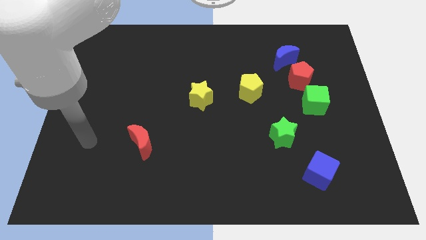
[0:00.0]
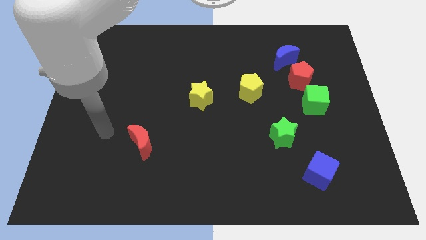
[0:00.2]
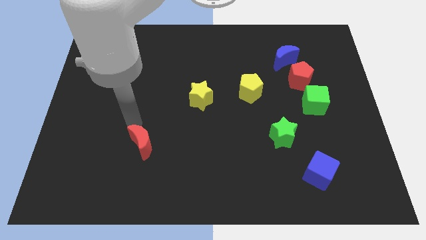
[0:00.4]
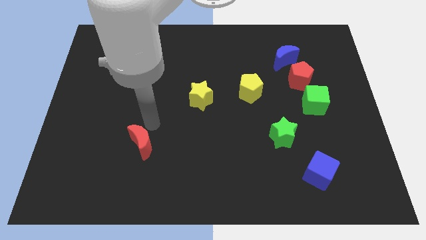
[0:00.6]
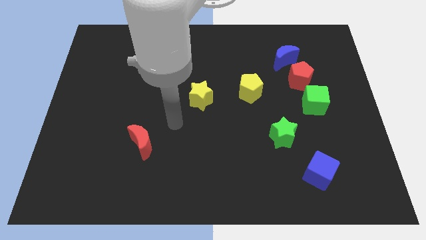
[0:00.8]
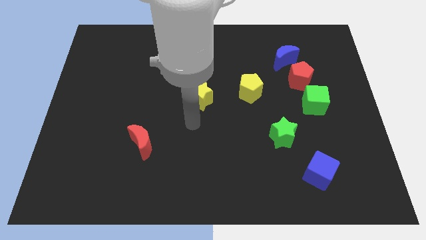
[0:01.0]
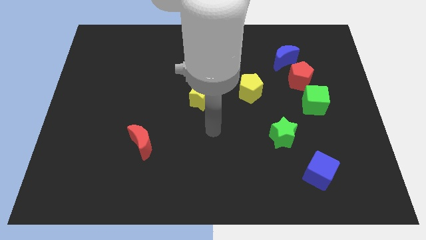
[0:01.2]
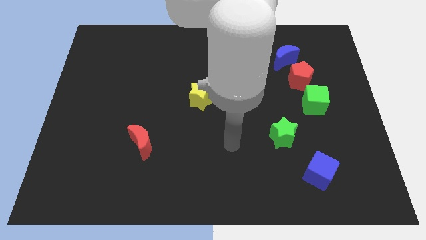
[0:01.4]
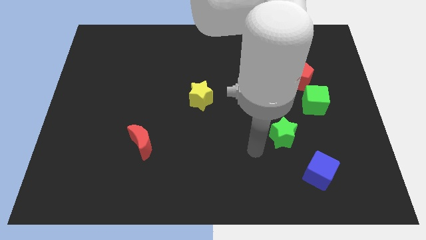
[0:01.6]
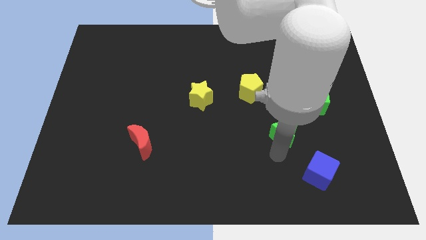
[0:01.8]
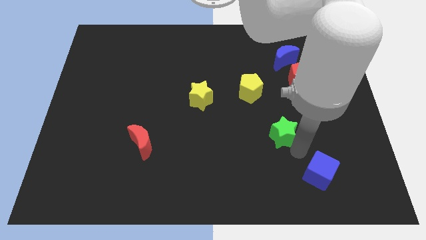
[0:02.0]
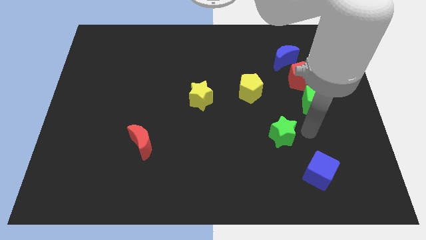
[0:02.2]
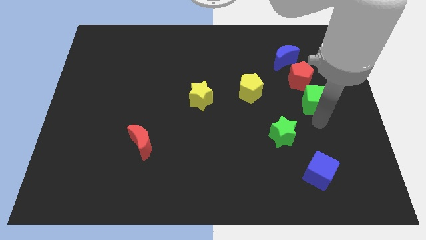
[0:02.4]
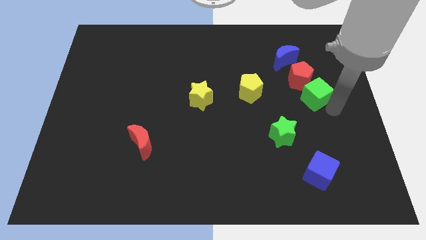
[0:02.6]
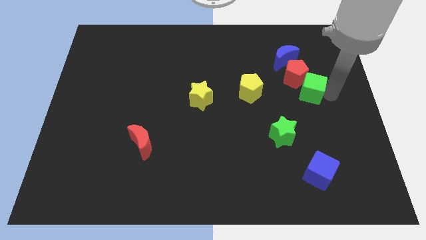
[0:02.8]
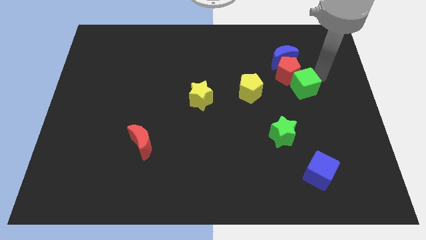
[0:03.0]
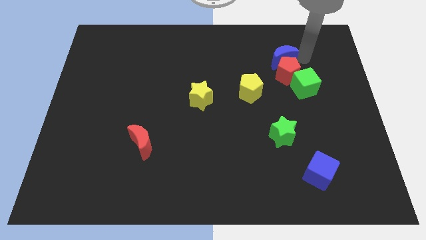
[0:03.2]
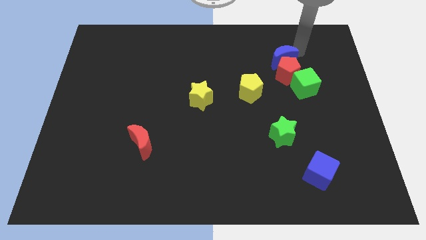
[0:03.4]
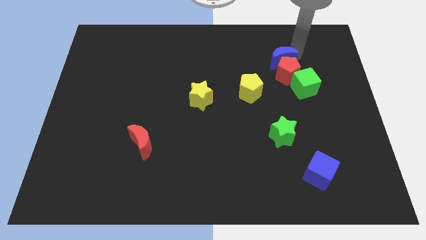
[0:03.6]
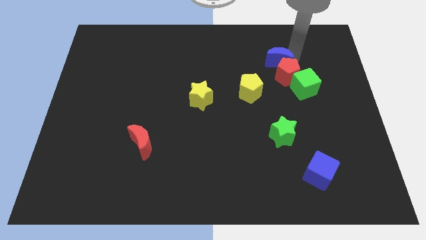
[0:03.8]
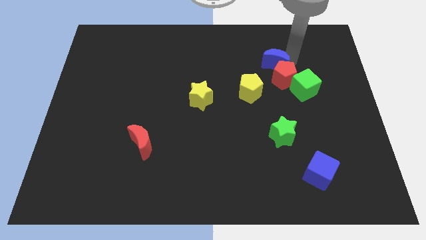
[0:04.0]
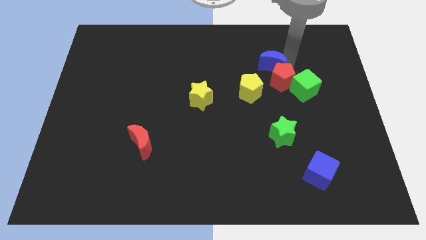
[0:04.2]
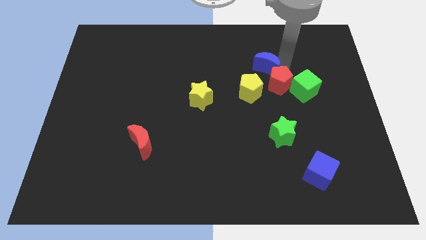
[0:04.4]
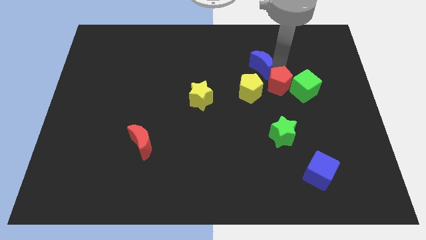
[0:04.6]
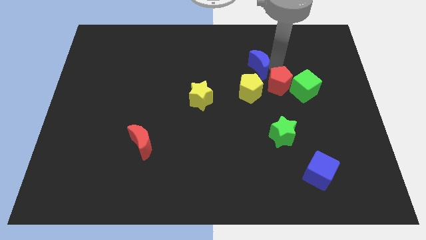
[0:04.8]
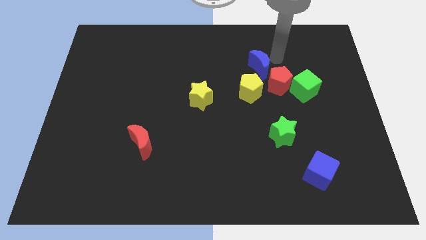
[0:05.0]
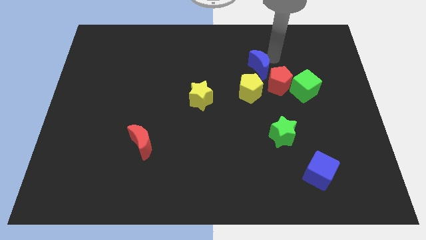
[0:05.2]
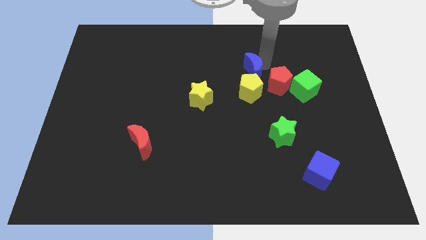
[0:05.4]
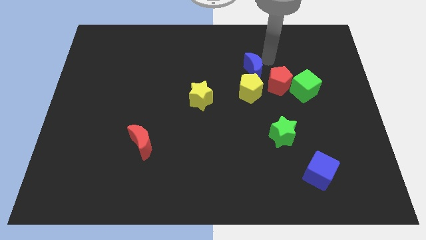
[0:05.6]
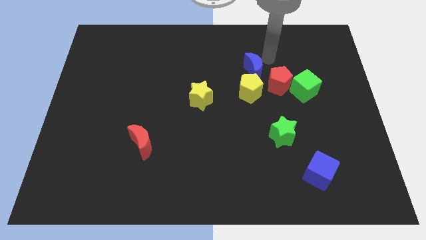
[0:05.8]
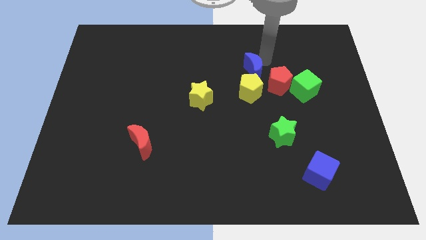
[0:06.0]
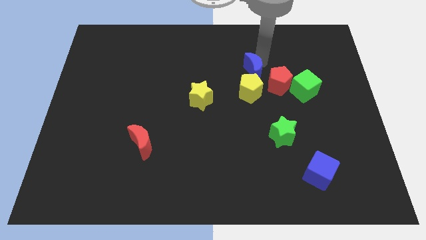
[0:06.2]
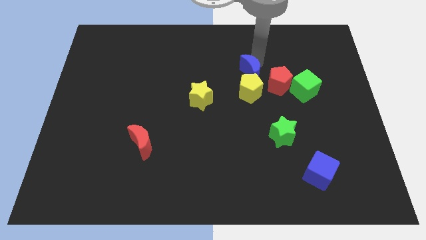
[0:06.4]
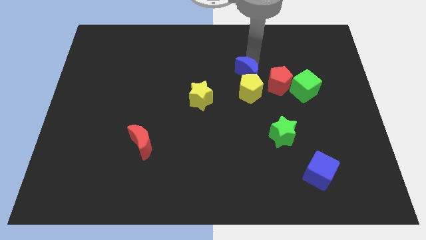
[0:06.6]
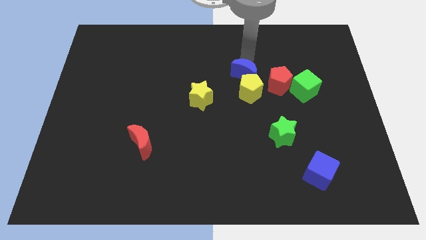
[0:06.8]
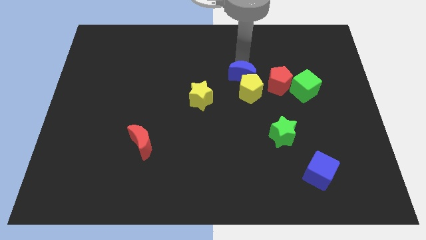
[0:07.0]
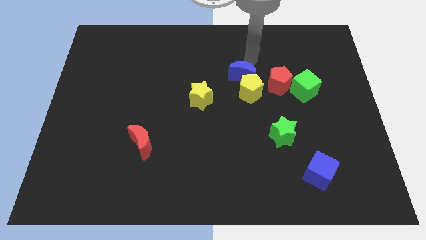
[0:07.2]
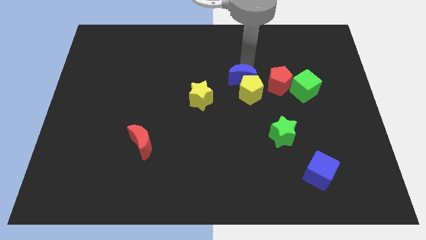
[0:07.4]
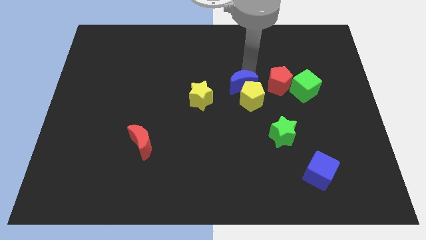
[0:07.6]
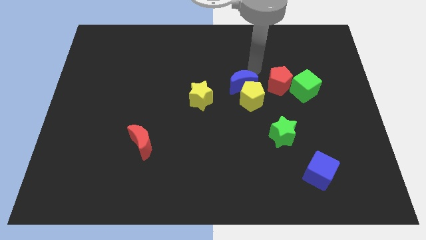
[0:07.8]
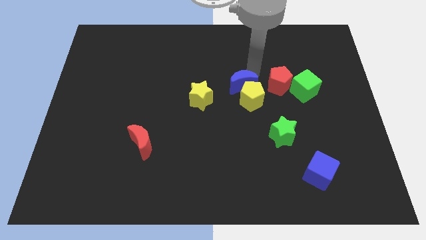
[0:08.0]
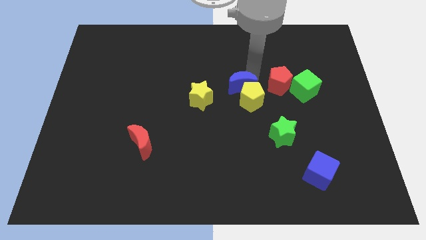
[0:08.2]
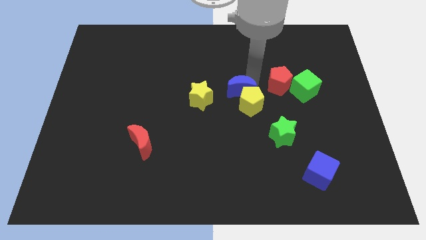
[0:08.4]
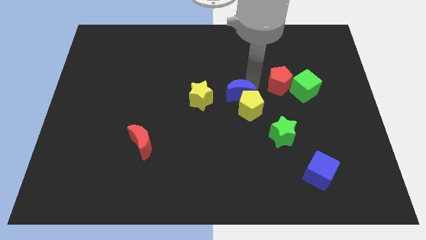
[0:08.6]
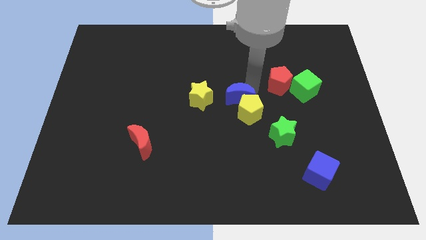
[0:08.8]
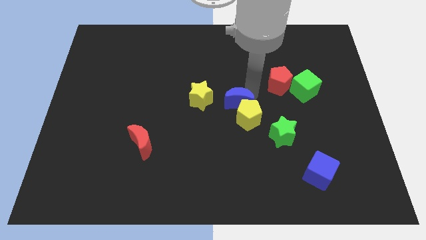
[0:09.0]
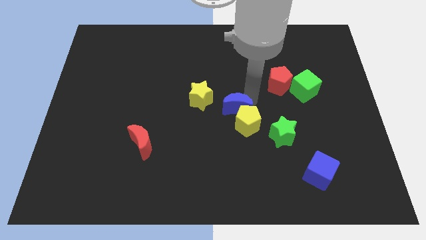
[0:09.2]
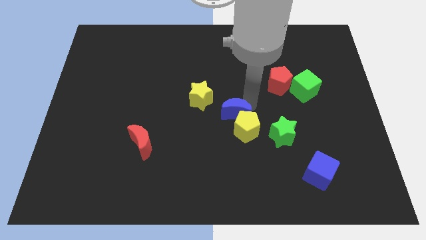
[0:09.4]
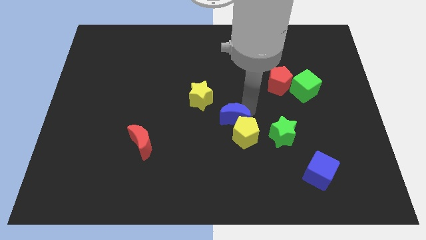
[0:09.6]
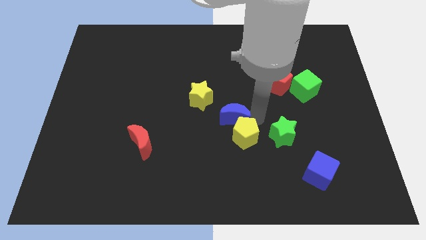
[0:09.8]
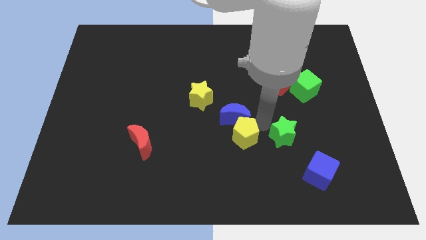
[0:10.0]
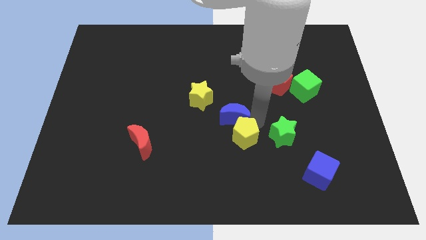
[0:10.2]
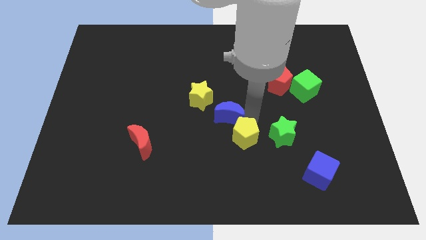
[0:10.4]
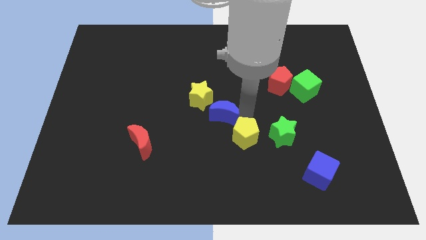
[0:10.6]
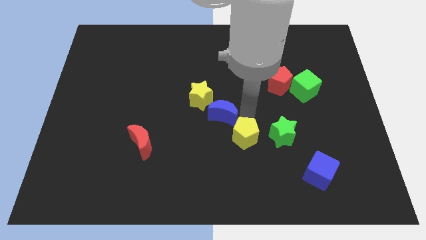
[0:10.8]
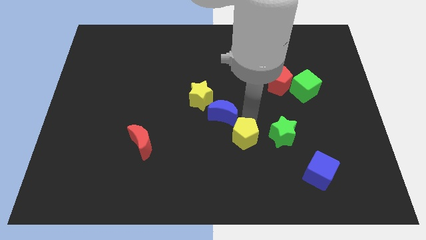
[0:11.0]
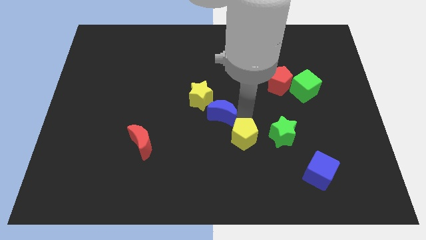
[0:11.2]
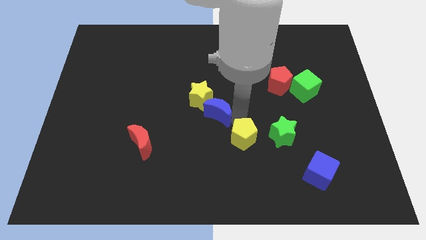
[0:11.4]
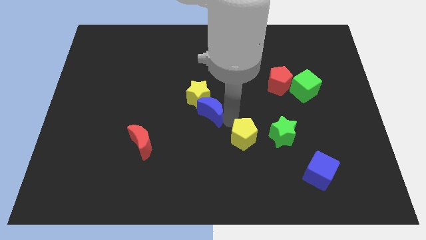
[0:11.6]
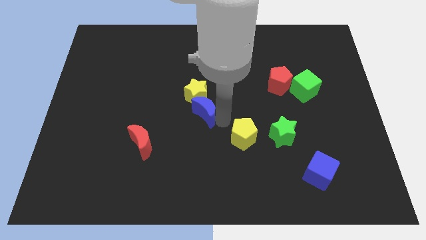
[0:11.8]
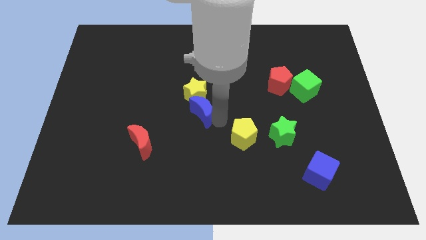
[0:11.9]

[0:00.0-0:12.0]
put the blue moon to the bottom left of the yellow star

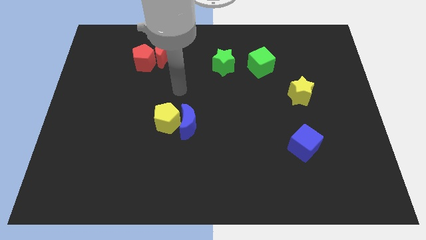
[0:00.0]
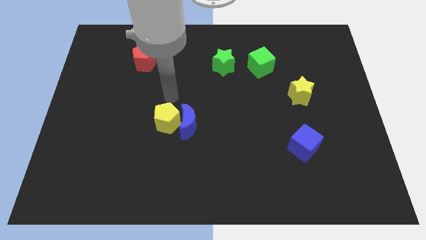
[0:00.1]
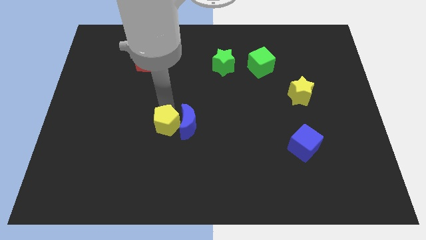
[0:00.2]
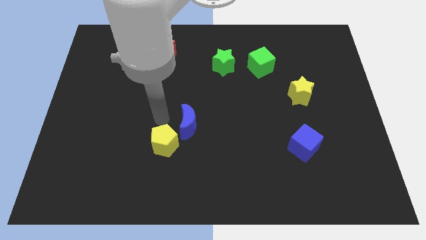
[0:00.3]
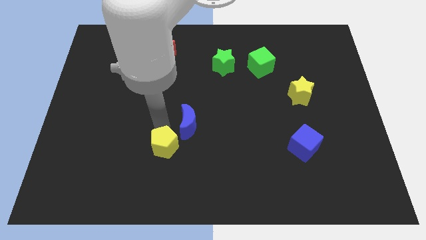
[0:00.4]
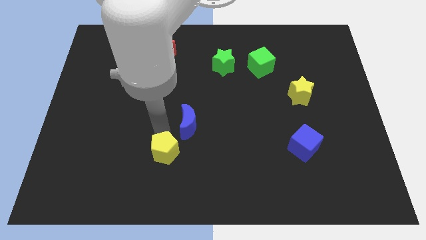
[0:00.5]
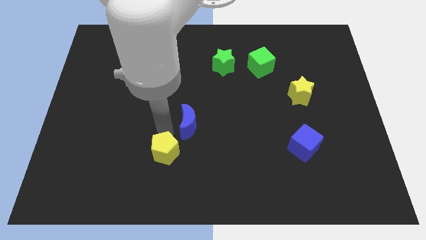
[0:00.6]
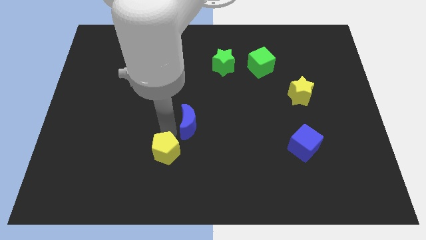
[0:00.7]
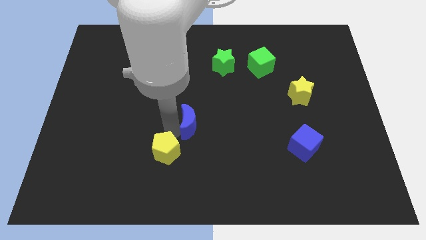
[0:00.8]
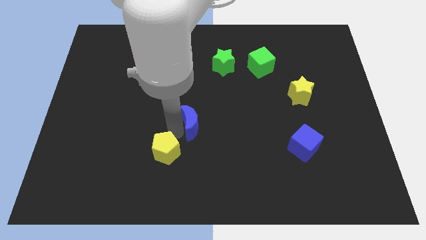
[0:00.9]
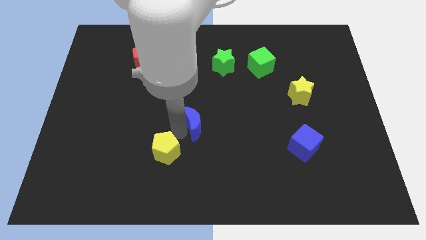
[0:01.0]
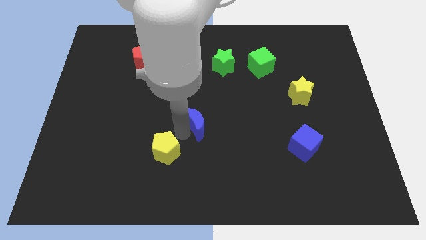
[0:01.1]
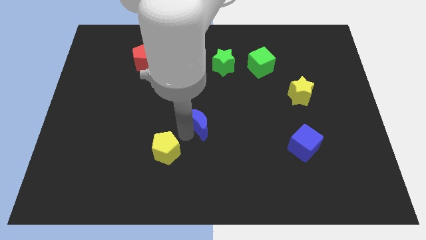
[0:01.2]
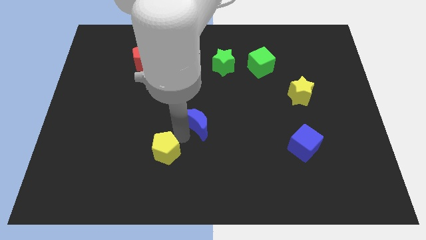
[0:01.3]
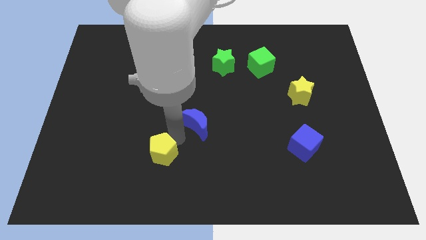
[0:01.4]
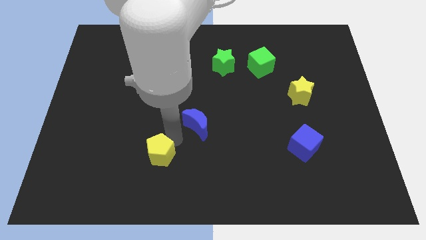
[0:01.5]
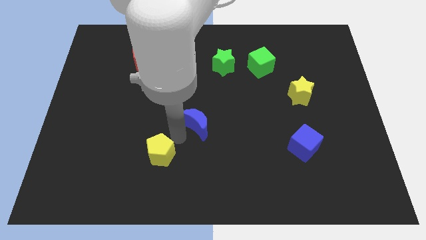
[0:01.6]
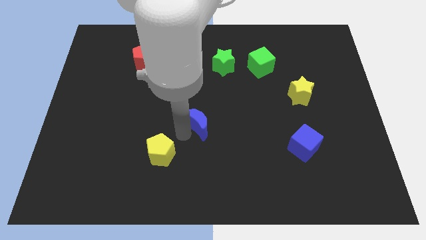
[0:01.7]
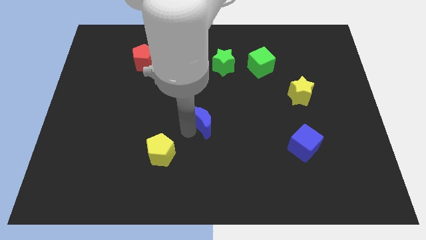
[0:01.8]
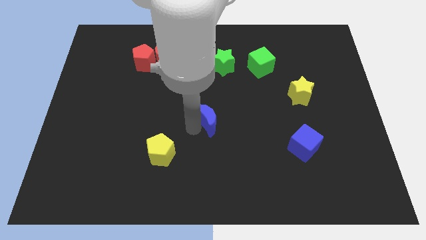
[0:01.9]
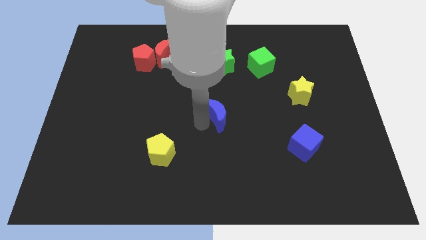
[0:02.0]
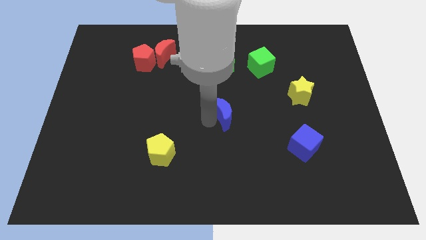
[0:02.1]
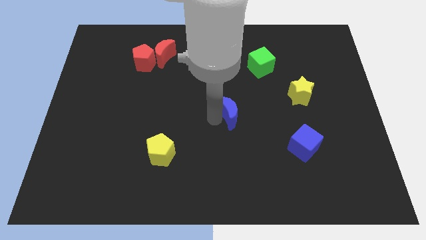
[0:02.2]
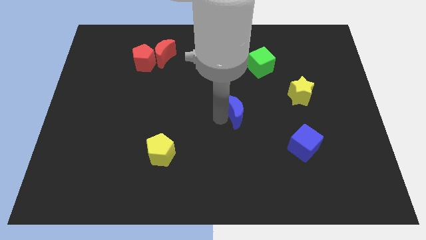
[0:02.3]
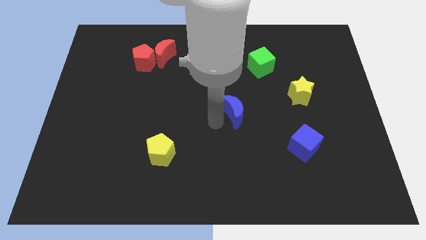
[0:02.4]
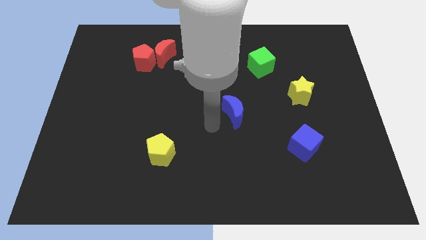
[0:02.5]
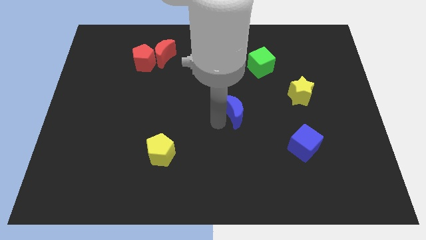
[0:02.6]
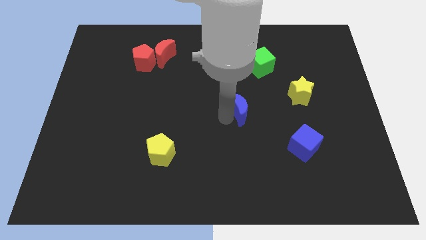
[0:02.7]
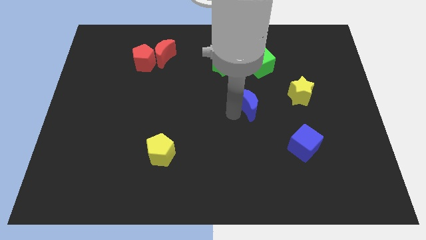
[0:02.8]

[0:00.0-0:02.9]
move the blue moon to the bottom of the green cube
